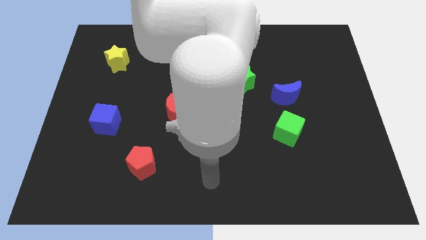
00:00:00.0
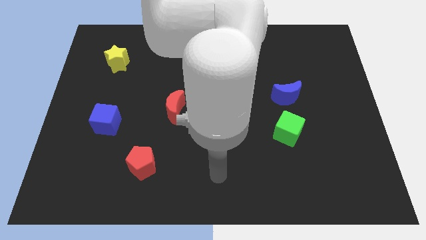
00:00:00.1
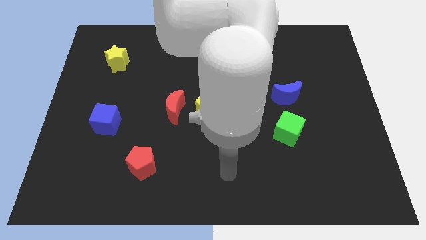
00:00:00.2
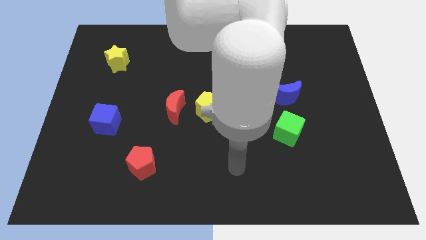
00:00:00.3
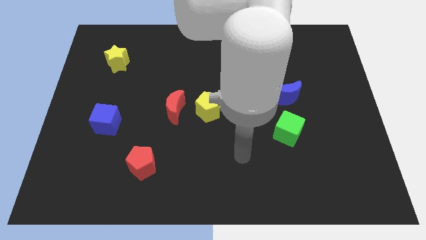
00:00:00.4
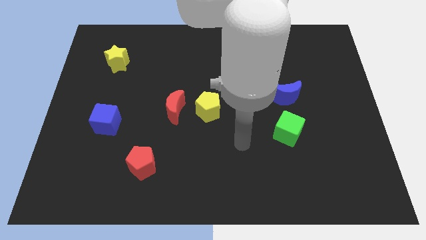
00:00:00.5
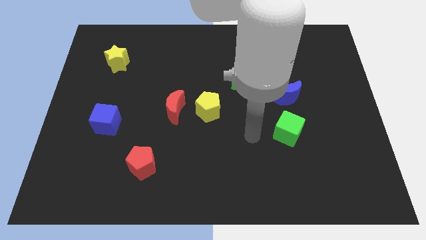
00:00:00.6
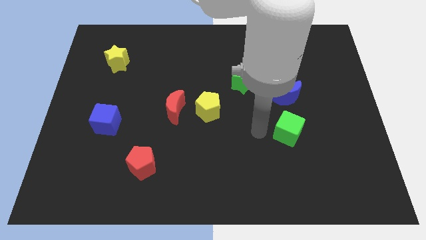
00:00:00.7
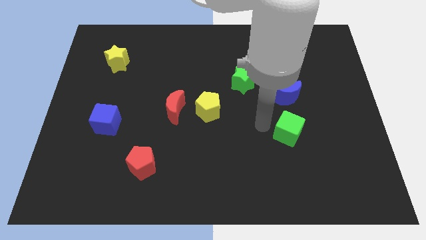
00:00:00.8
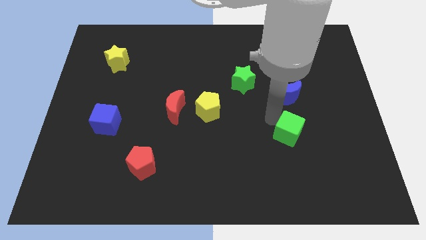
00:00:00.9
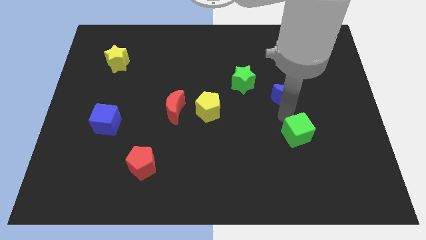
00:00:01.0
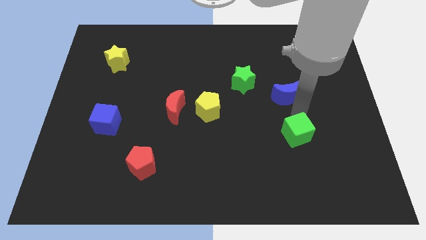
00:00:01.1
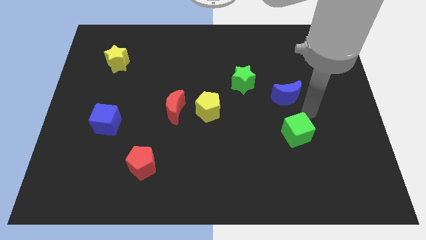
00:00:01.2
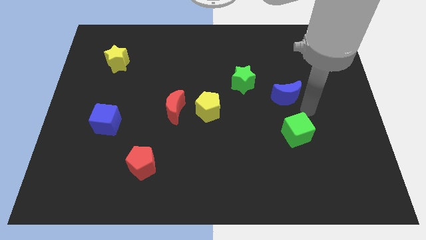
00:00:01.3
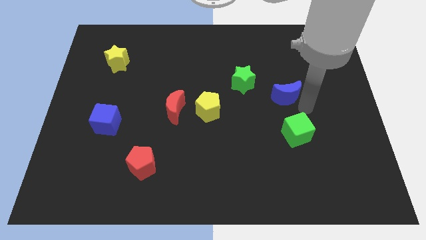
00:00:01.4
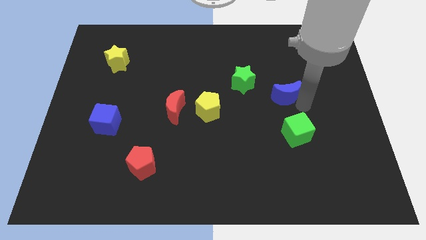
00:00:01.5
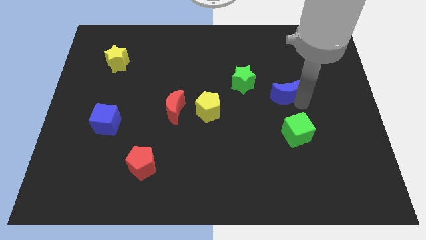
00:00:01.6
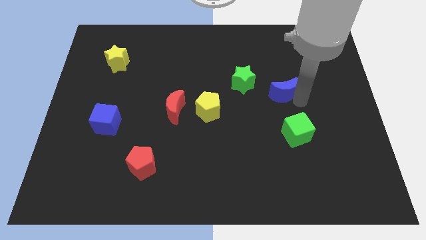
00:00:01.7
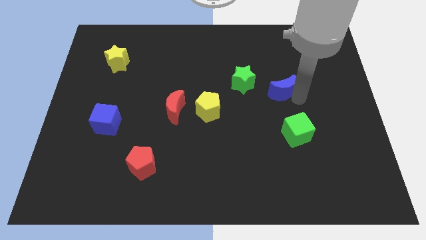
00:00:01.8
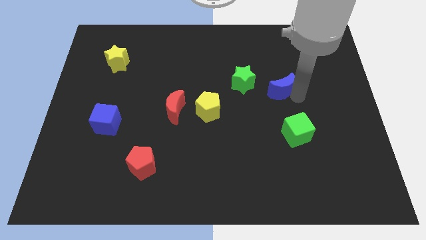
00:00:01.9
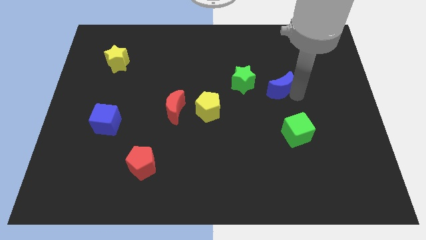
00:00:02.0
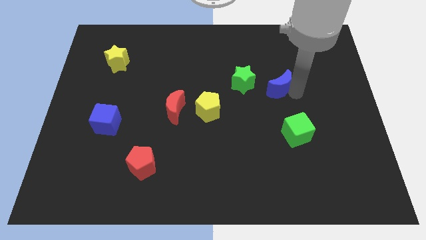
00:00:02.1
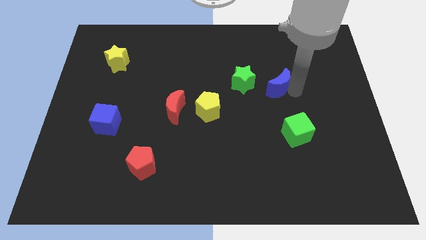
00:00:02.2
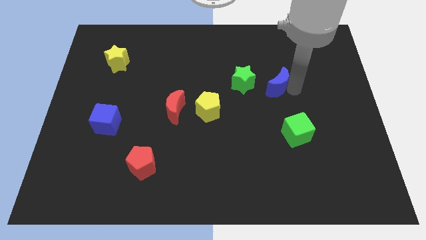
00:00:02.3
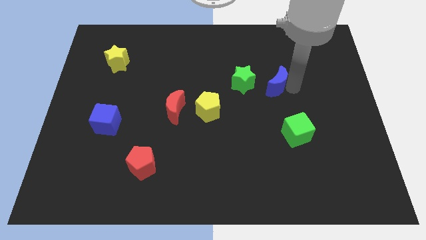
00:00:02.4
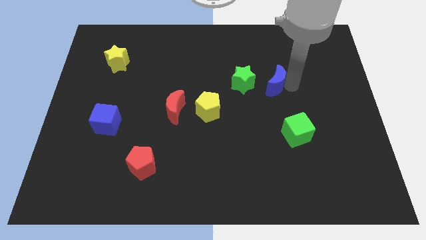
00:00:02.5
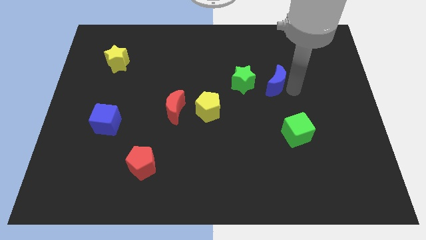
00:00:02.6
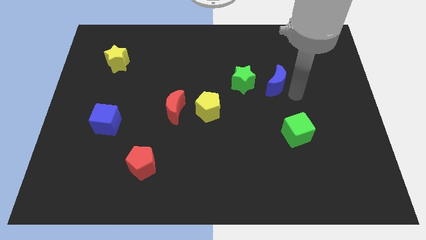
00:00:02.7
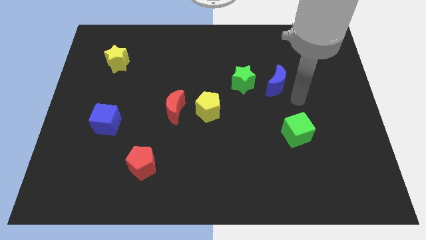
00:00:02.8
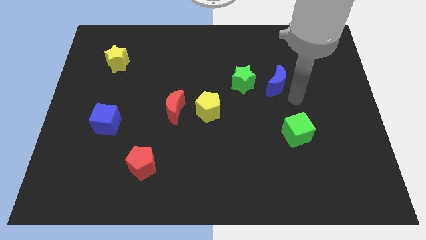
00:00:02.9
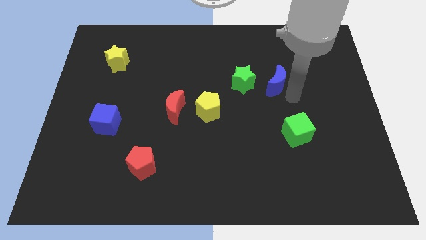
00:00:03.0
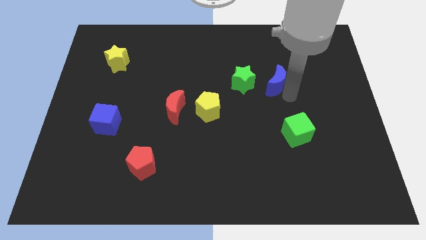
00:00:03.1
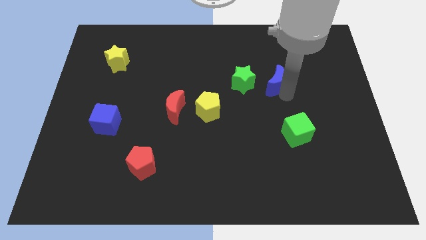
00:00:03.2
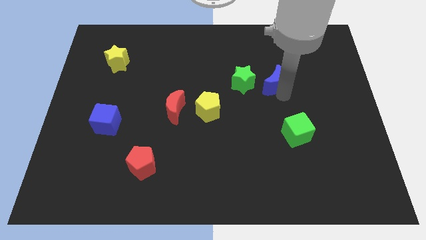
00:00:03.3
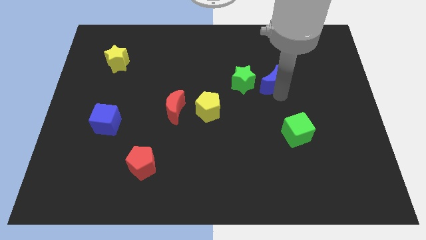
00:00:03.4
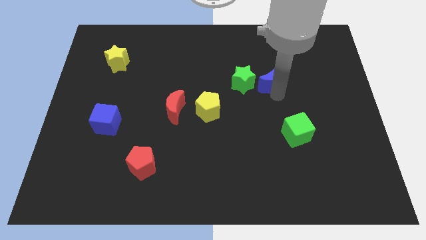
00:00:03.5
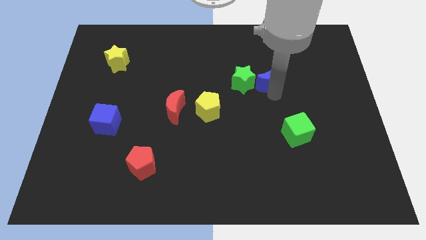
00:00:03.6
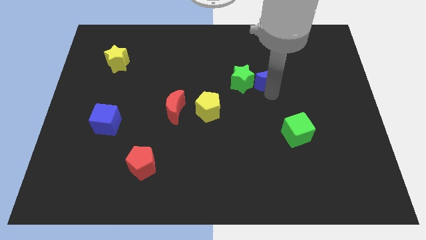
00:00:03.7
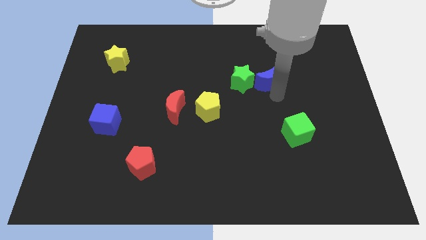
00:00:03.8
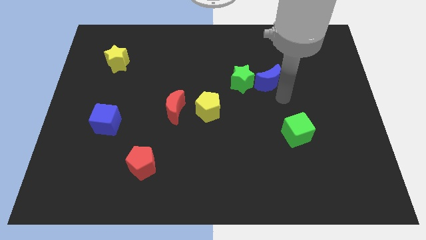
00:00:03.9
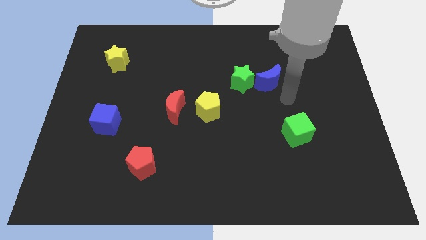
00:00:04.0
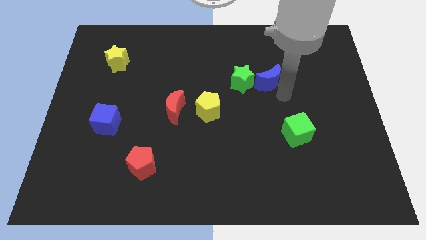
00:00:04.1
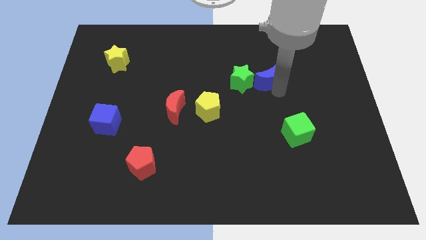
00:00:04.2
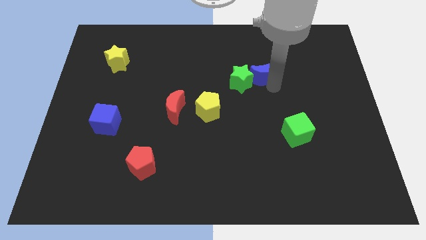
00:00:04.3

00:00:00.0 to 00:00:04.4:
move the blue moon upwards and to the left diagonally a bit

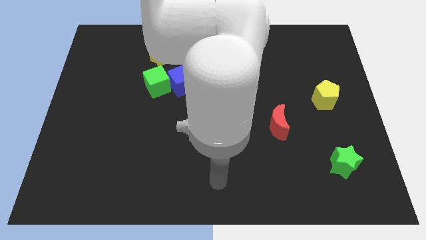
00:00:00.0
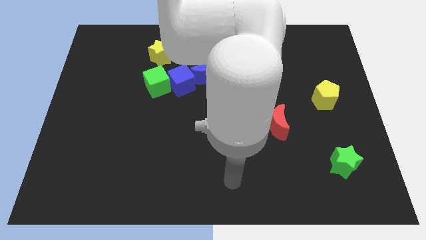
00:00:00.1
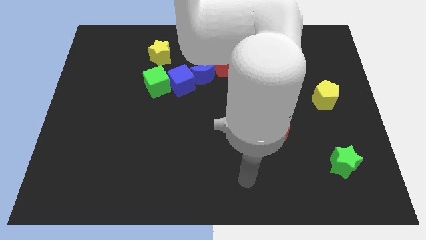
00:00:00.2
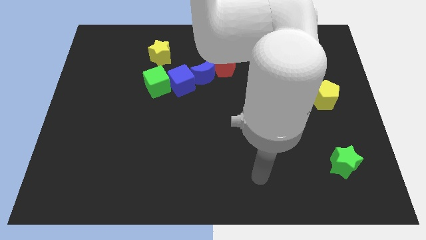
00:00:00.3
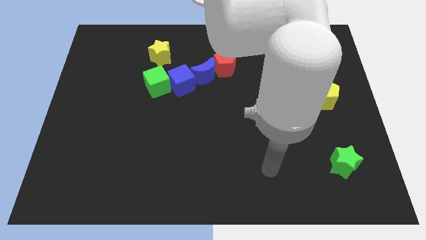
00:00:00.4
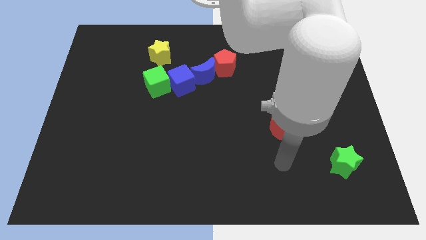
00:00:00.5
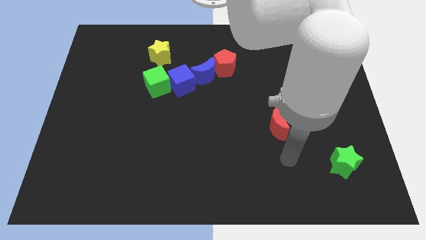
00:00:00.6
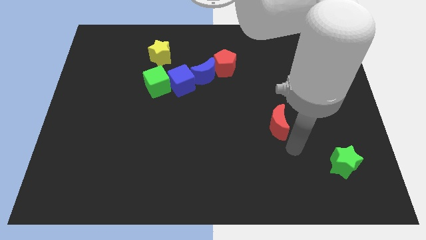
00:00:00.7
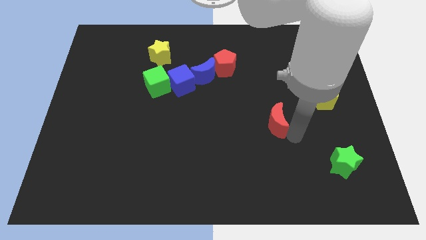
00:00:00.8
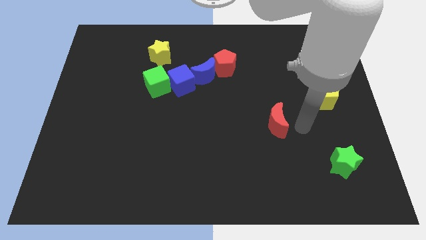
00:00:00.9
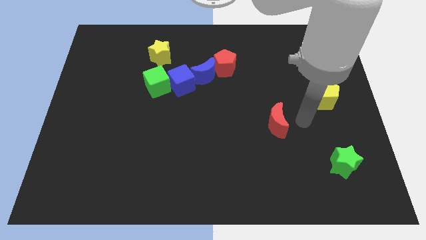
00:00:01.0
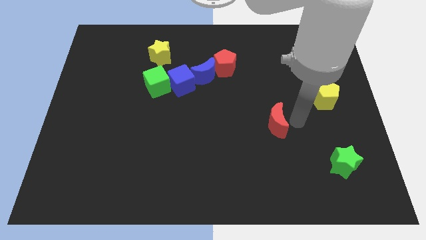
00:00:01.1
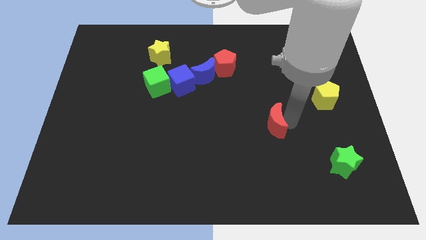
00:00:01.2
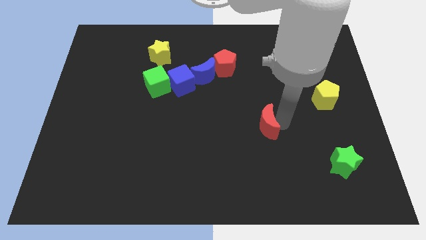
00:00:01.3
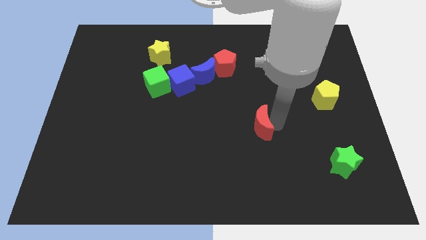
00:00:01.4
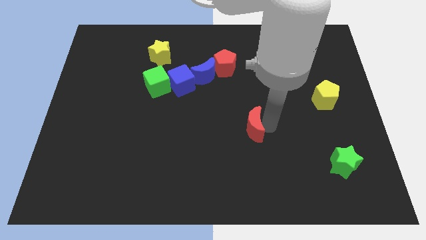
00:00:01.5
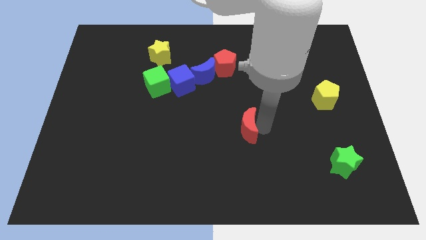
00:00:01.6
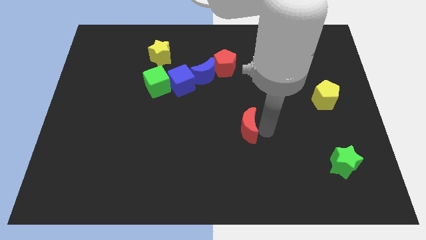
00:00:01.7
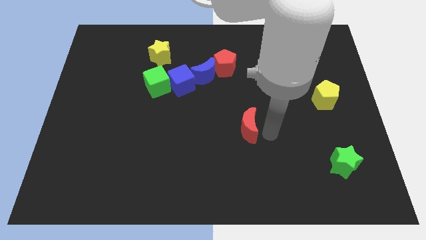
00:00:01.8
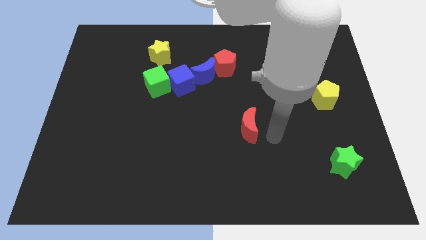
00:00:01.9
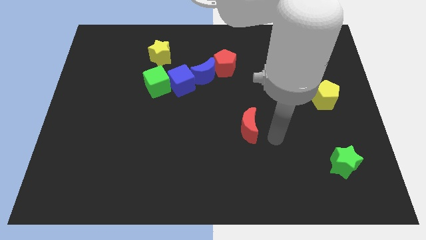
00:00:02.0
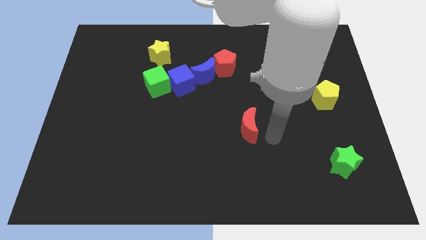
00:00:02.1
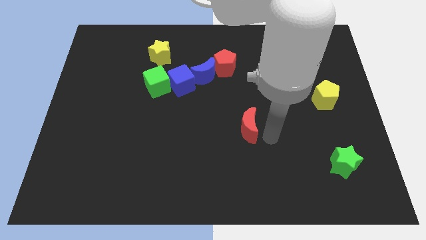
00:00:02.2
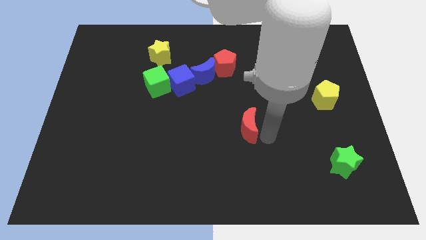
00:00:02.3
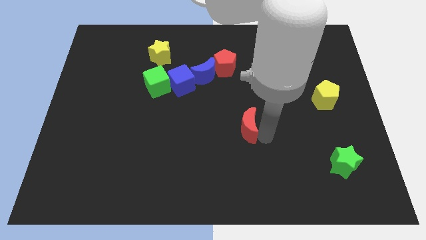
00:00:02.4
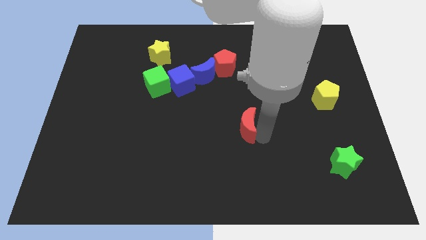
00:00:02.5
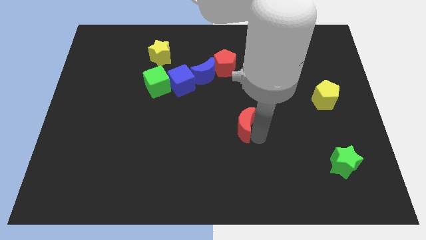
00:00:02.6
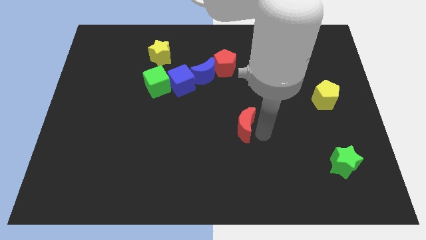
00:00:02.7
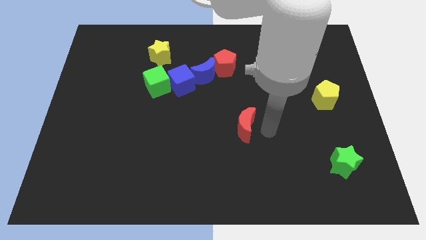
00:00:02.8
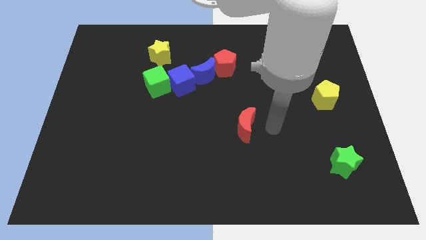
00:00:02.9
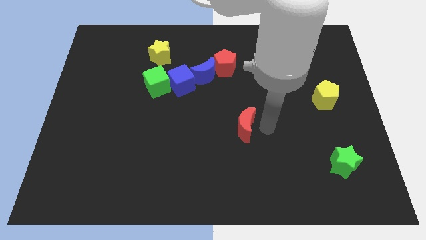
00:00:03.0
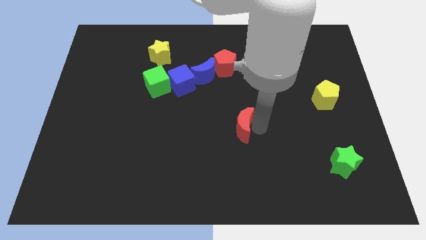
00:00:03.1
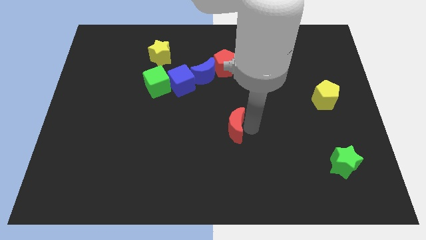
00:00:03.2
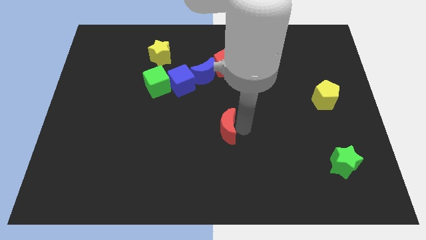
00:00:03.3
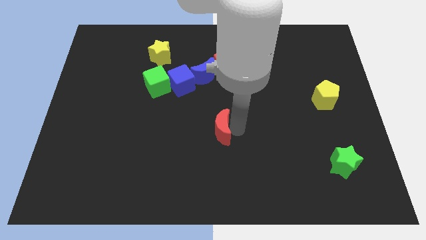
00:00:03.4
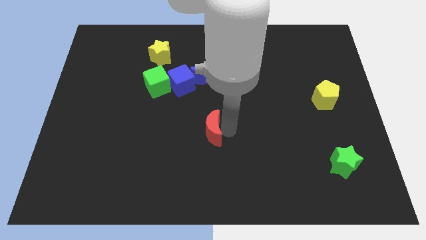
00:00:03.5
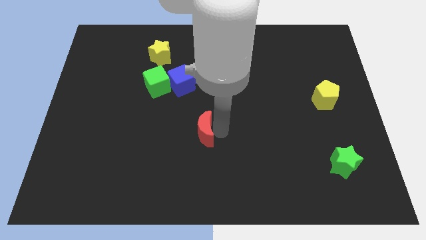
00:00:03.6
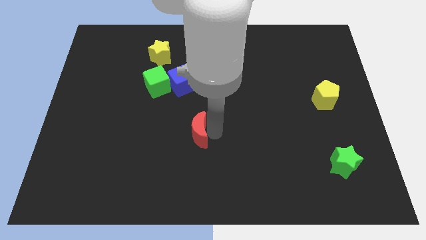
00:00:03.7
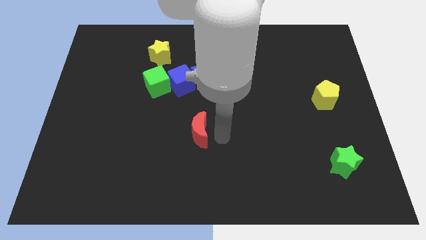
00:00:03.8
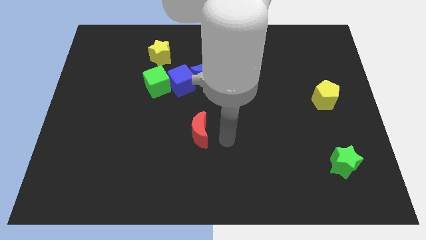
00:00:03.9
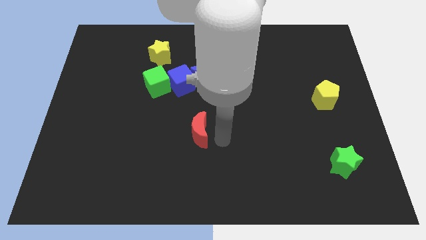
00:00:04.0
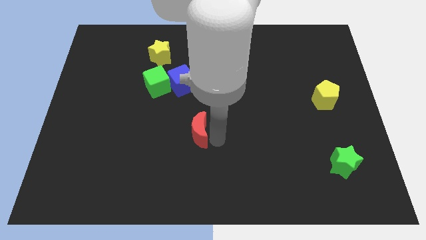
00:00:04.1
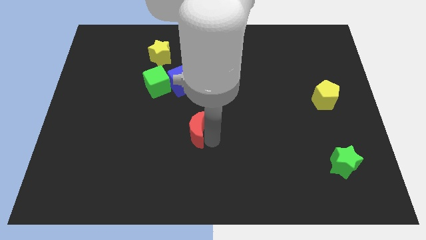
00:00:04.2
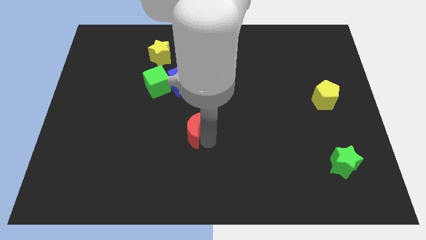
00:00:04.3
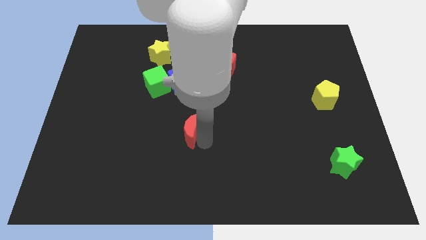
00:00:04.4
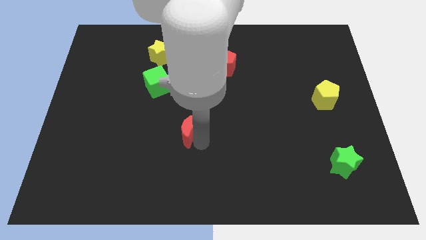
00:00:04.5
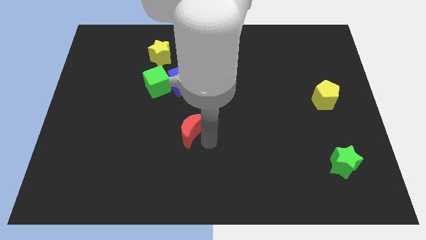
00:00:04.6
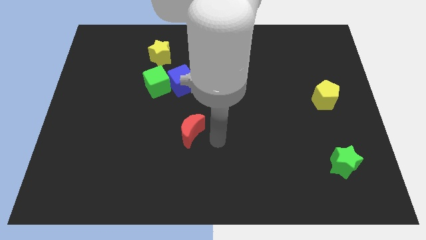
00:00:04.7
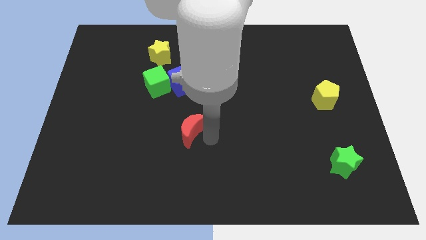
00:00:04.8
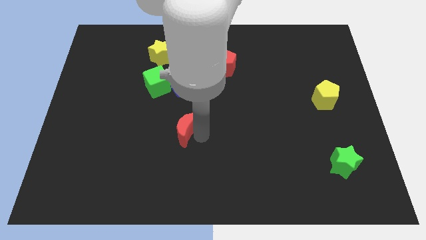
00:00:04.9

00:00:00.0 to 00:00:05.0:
push the red moon left
